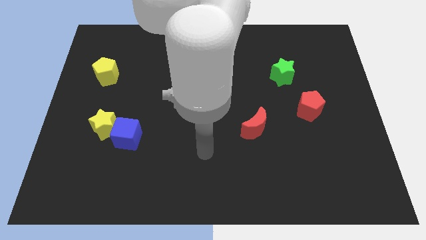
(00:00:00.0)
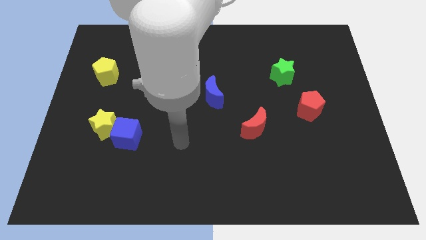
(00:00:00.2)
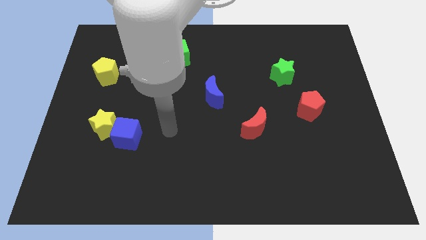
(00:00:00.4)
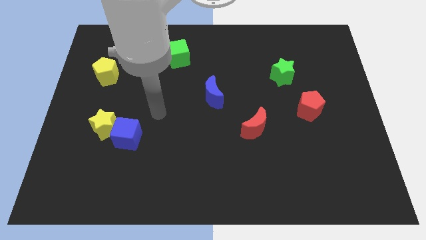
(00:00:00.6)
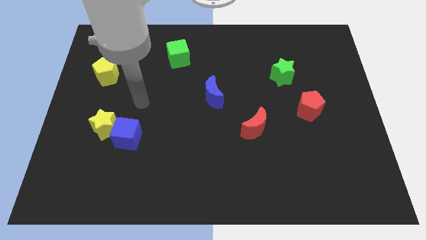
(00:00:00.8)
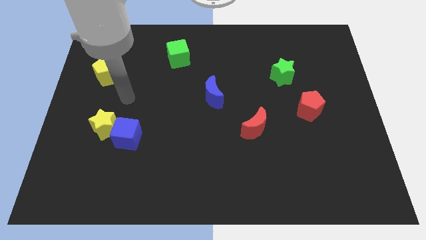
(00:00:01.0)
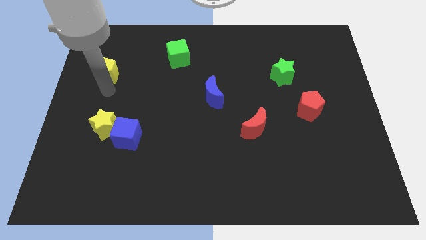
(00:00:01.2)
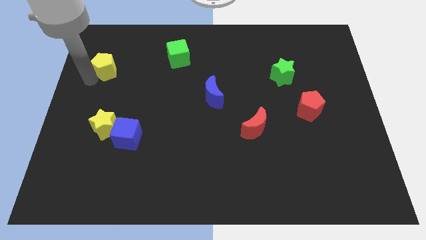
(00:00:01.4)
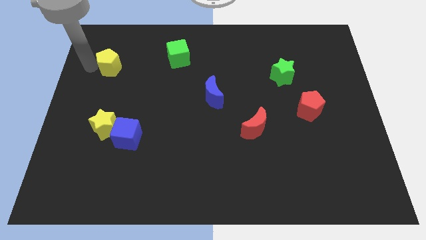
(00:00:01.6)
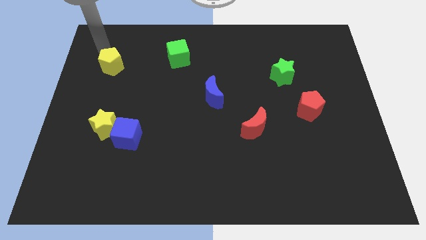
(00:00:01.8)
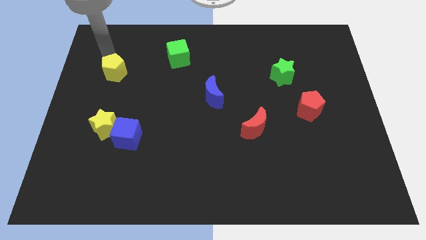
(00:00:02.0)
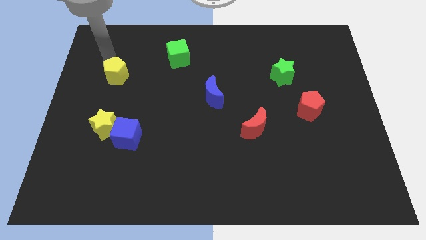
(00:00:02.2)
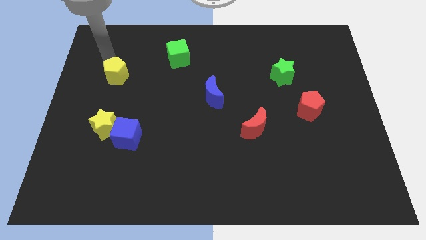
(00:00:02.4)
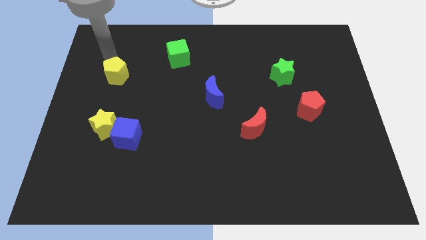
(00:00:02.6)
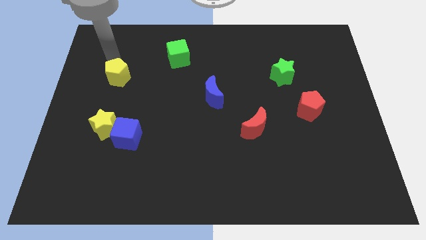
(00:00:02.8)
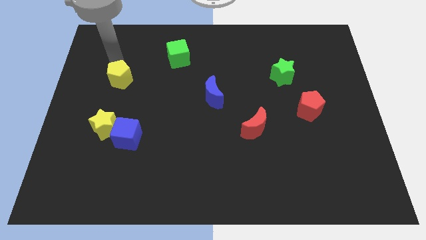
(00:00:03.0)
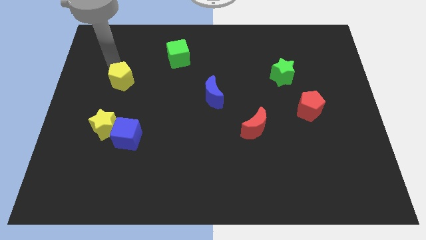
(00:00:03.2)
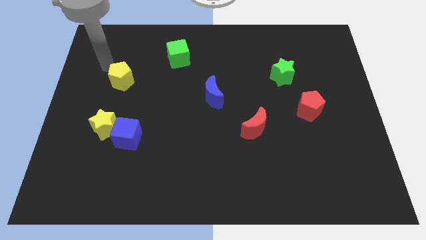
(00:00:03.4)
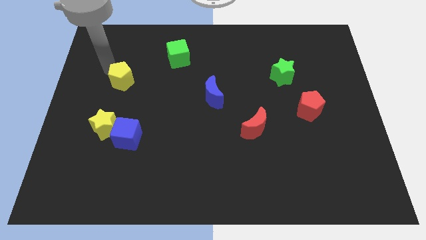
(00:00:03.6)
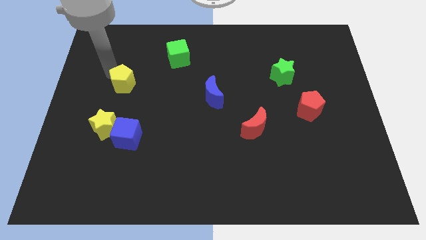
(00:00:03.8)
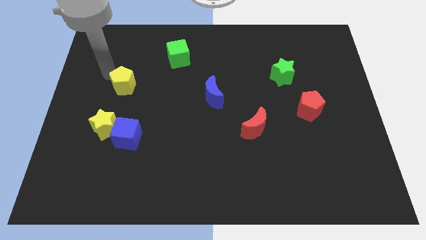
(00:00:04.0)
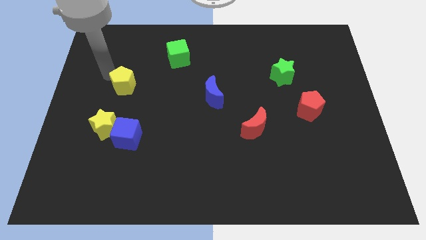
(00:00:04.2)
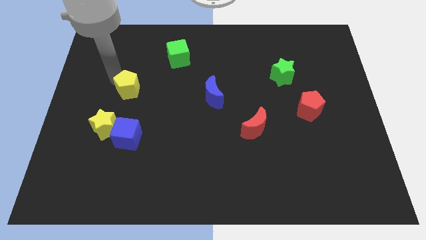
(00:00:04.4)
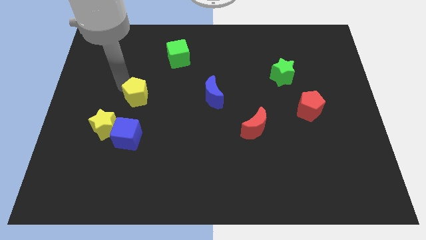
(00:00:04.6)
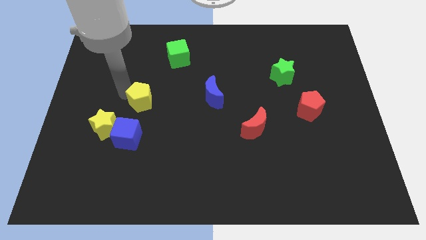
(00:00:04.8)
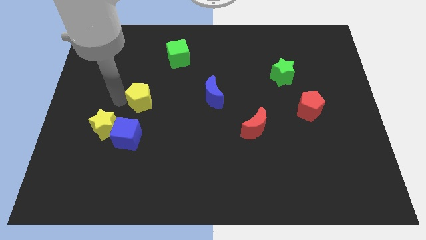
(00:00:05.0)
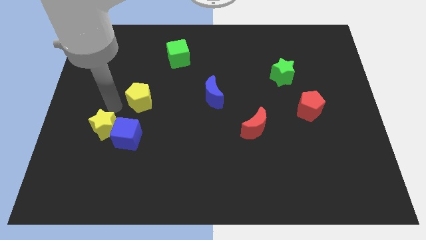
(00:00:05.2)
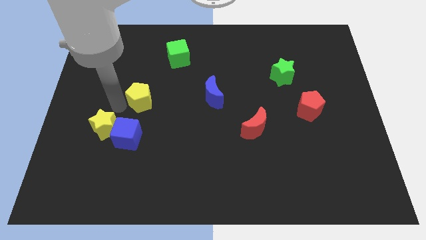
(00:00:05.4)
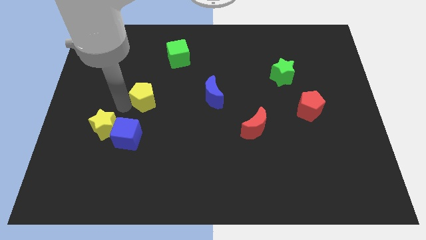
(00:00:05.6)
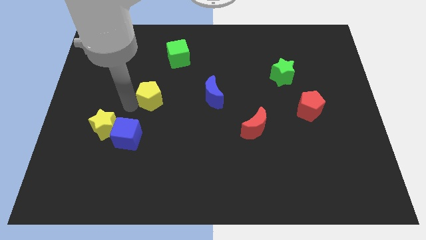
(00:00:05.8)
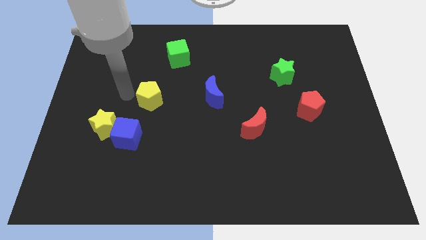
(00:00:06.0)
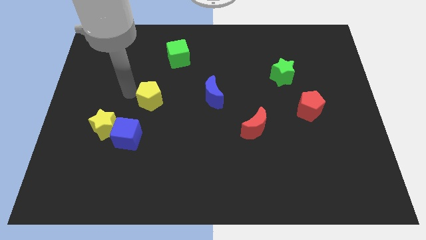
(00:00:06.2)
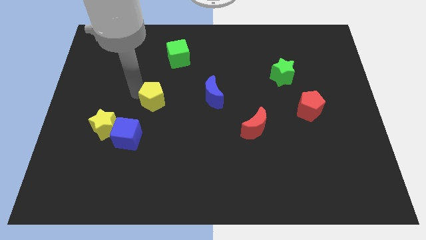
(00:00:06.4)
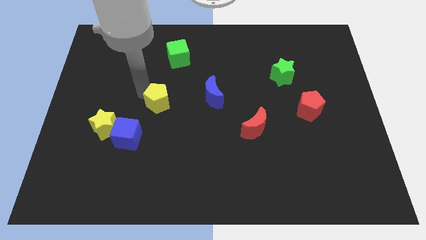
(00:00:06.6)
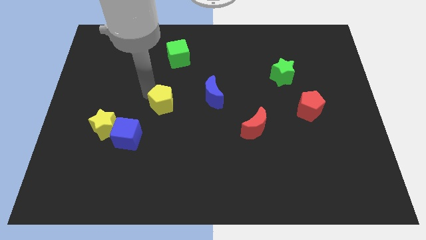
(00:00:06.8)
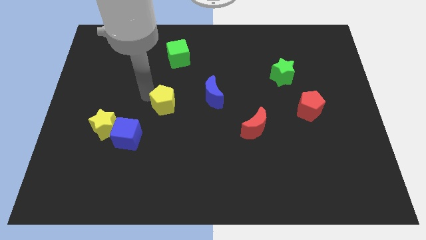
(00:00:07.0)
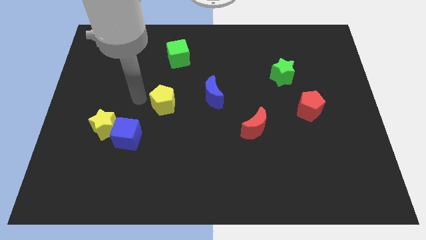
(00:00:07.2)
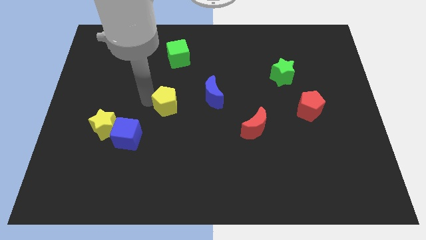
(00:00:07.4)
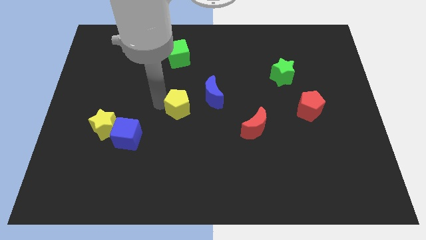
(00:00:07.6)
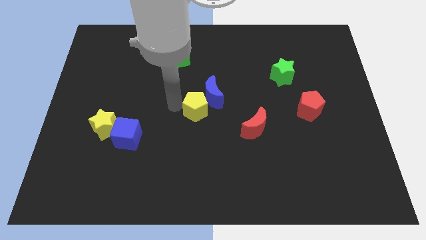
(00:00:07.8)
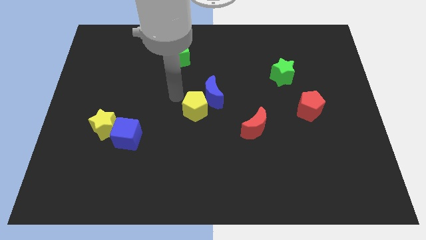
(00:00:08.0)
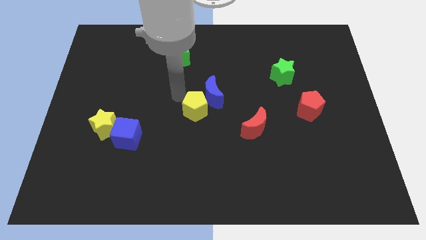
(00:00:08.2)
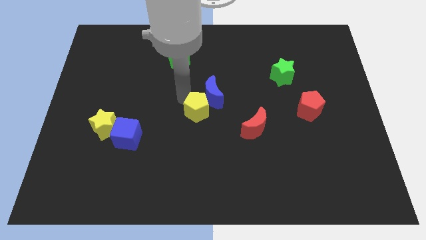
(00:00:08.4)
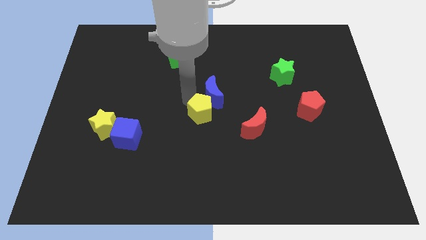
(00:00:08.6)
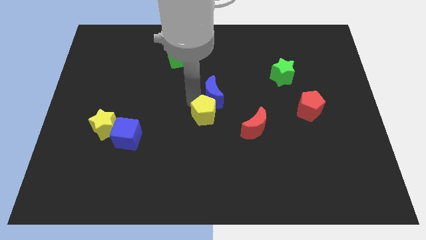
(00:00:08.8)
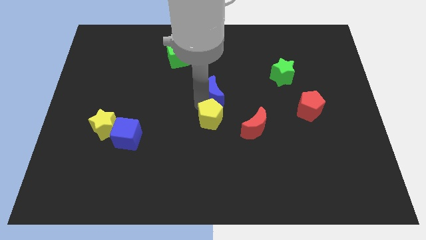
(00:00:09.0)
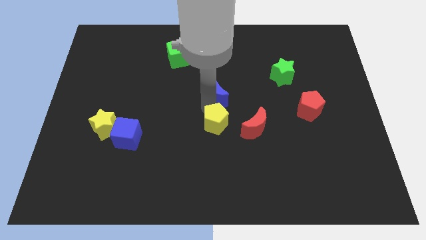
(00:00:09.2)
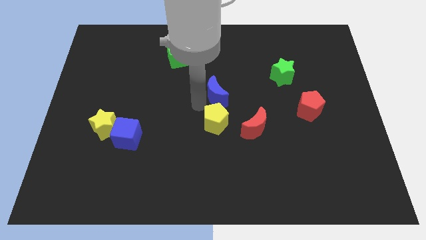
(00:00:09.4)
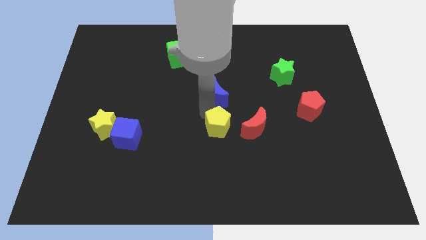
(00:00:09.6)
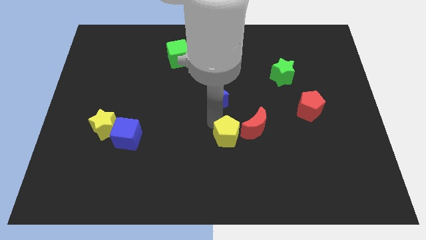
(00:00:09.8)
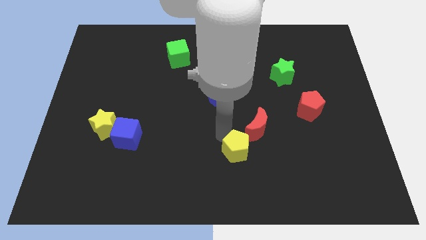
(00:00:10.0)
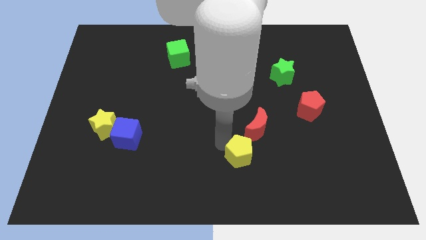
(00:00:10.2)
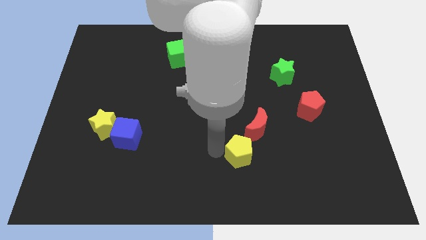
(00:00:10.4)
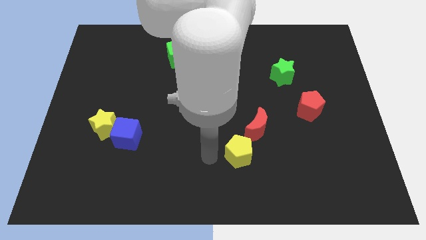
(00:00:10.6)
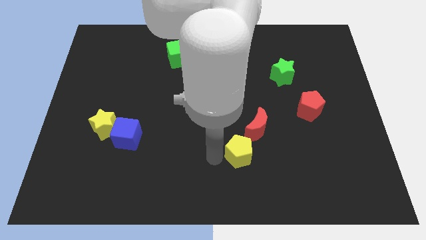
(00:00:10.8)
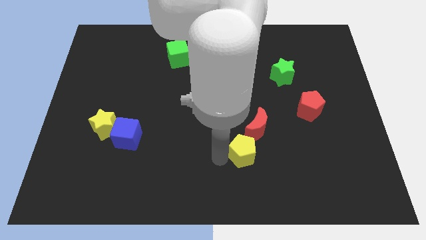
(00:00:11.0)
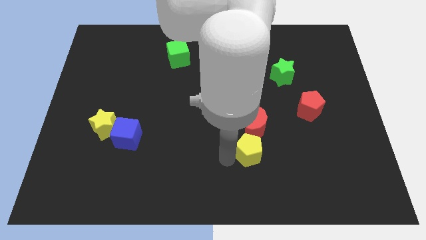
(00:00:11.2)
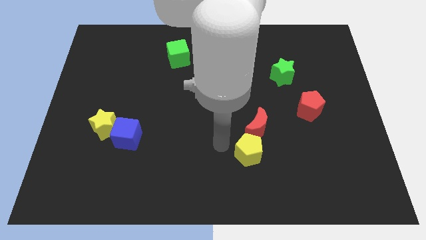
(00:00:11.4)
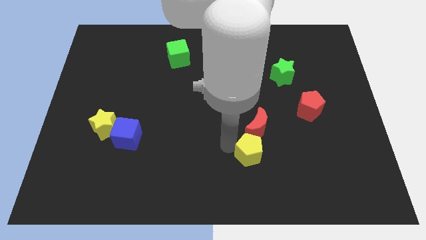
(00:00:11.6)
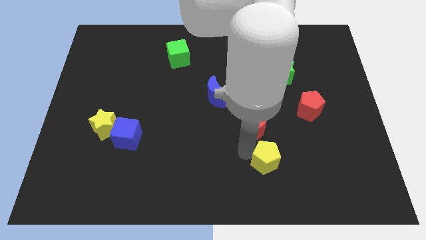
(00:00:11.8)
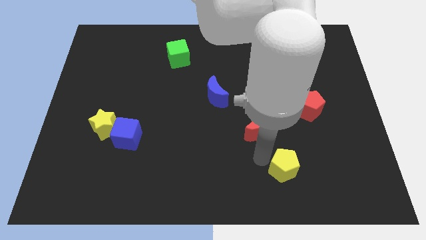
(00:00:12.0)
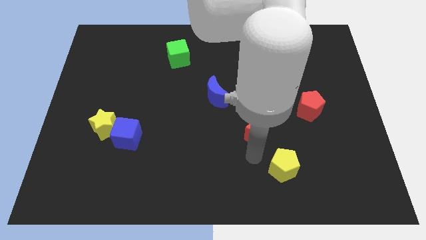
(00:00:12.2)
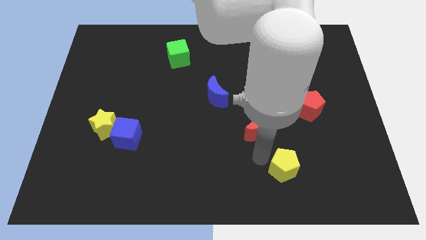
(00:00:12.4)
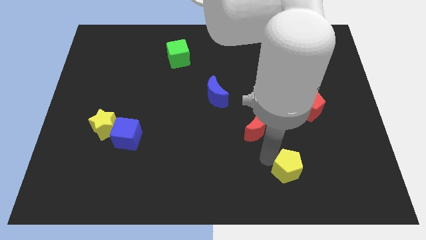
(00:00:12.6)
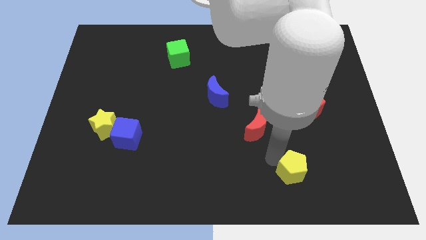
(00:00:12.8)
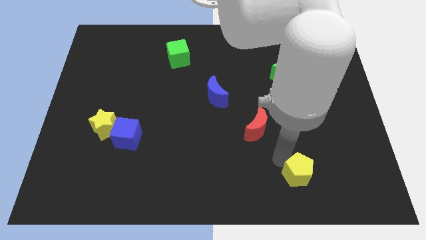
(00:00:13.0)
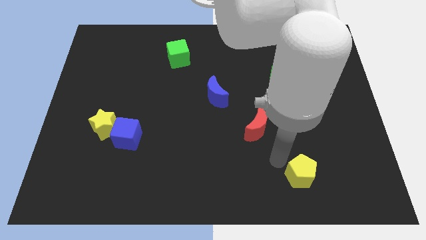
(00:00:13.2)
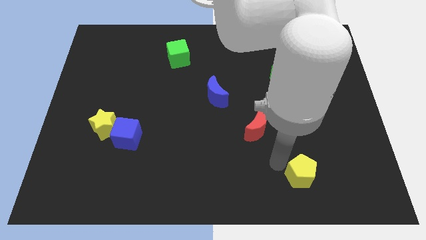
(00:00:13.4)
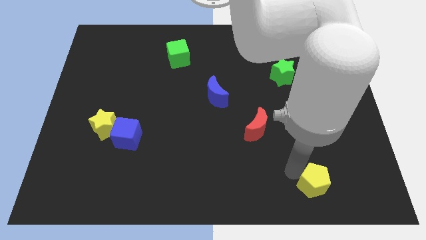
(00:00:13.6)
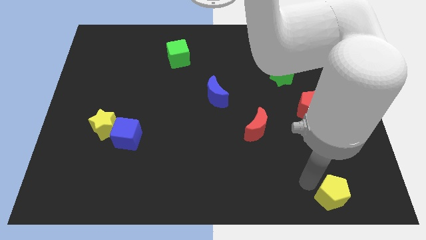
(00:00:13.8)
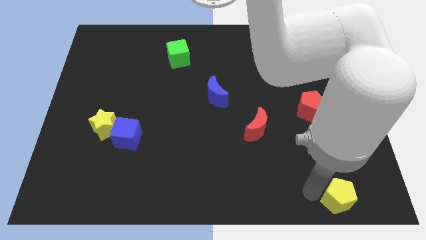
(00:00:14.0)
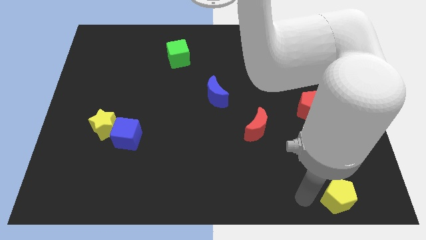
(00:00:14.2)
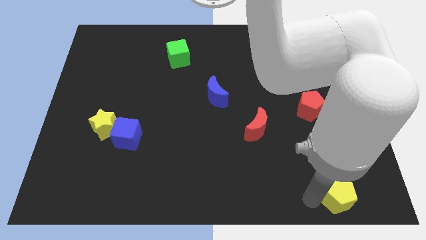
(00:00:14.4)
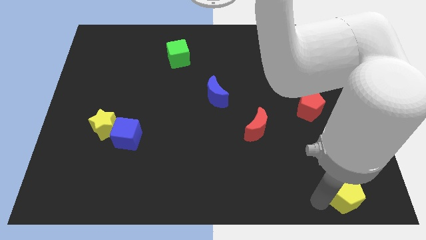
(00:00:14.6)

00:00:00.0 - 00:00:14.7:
push the yellow pentagon to the bottom right
